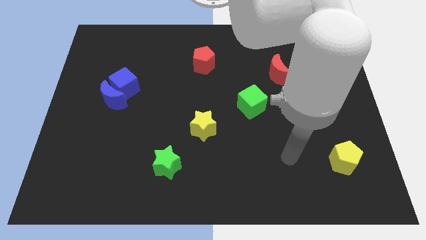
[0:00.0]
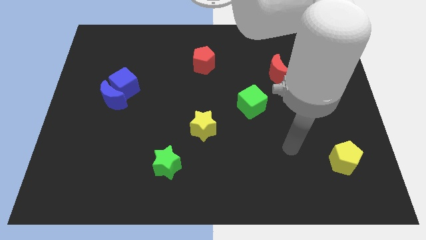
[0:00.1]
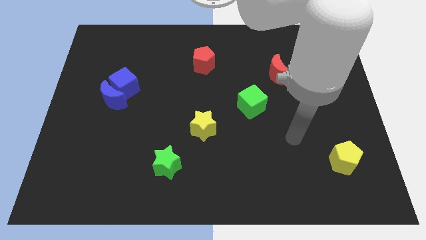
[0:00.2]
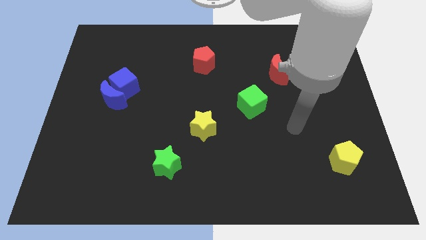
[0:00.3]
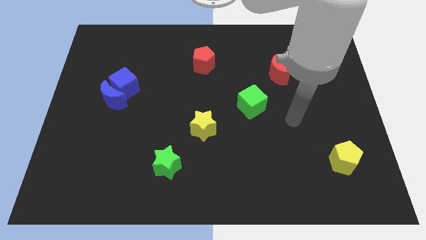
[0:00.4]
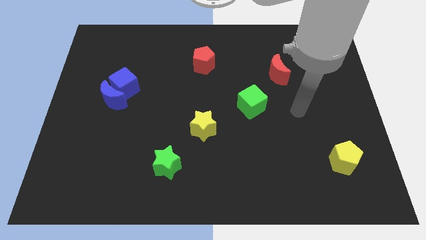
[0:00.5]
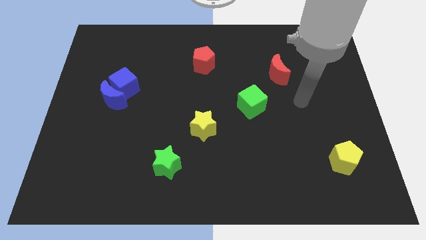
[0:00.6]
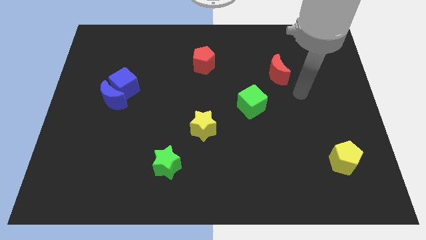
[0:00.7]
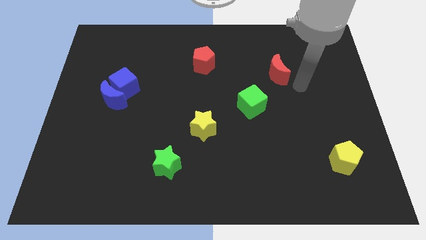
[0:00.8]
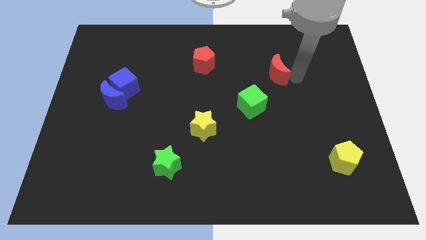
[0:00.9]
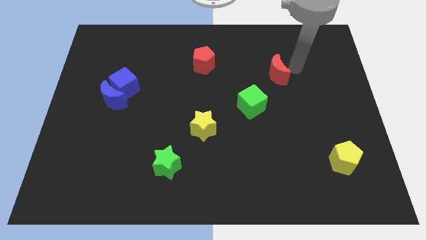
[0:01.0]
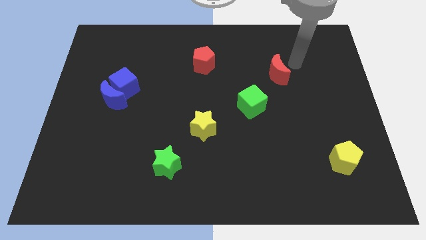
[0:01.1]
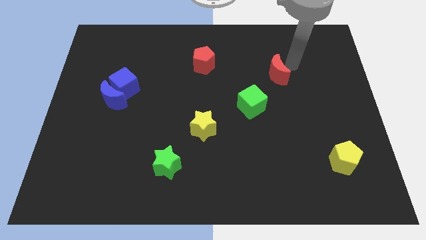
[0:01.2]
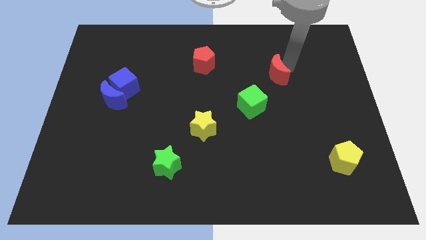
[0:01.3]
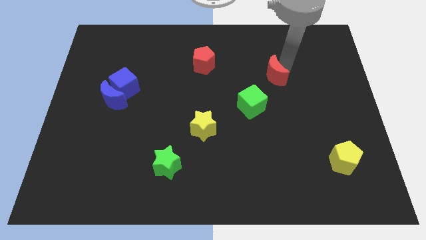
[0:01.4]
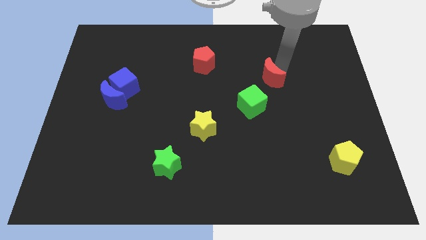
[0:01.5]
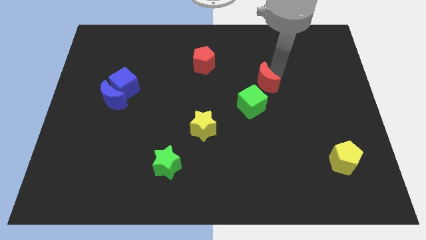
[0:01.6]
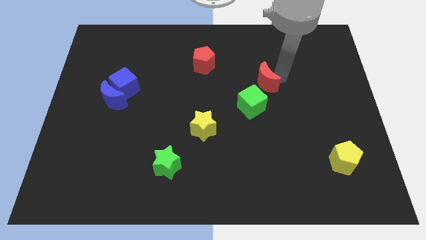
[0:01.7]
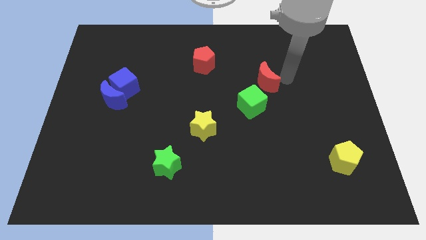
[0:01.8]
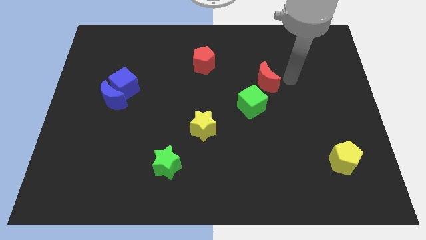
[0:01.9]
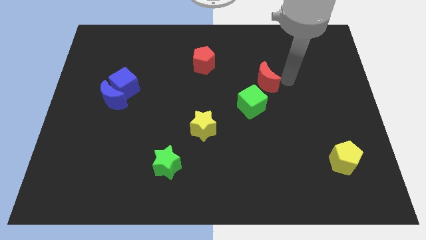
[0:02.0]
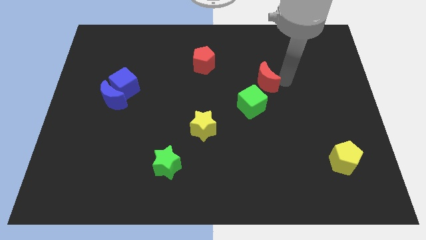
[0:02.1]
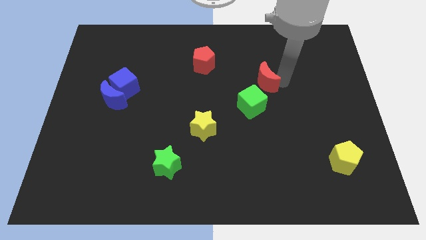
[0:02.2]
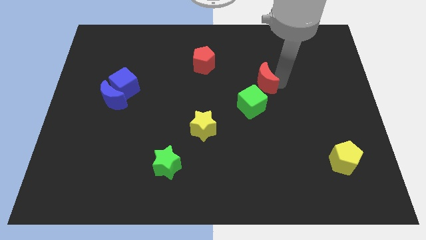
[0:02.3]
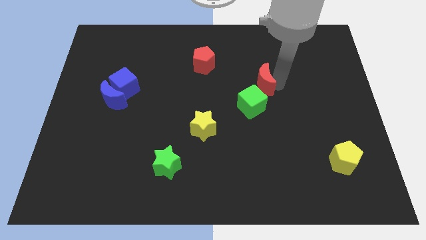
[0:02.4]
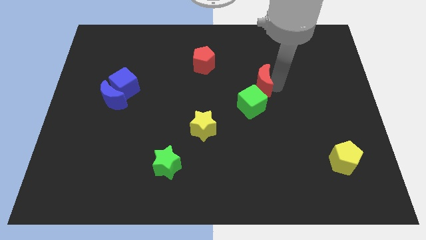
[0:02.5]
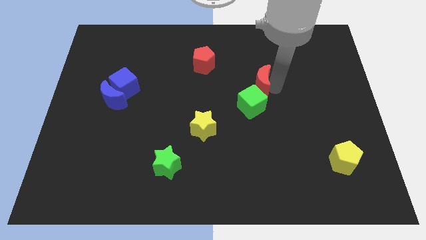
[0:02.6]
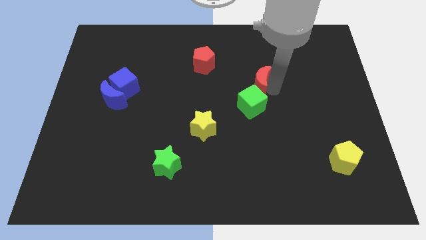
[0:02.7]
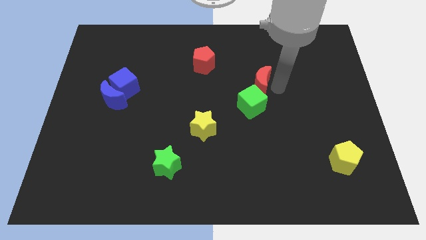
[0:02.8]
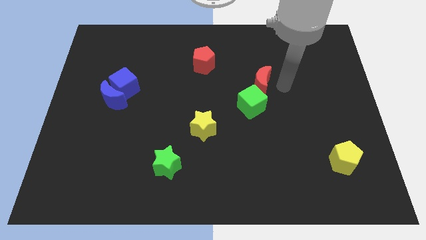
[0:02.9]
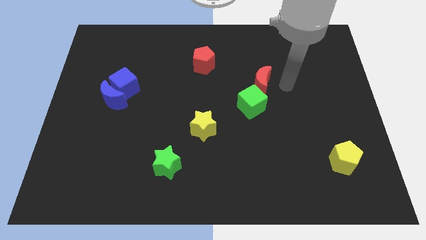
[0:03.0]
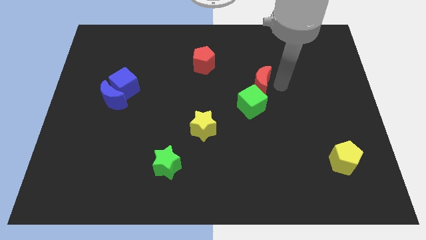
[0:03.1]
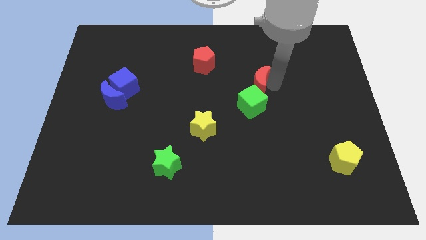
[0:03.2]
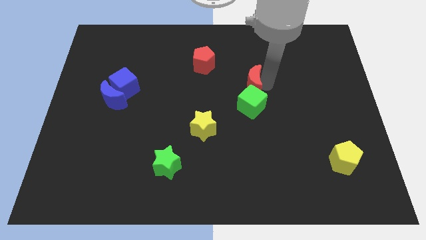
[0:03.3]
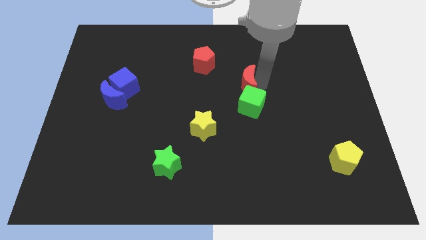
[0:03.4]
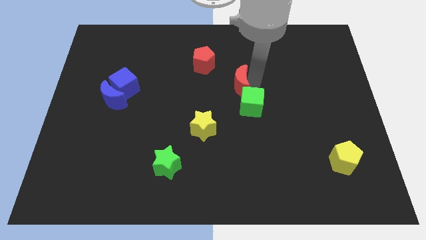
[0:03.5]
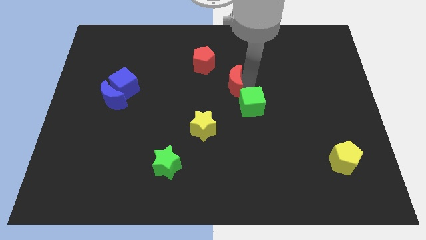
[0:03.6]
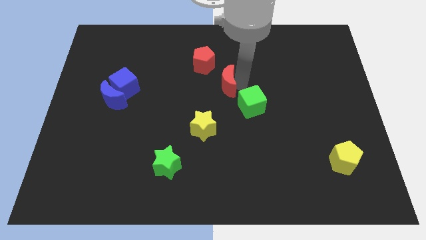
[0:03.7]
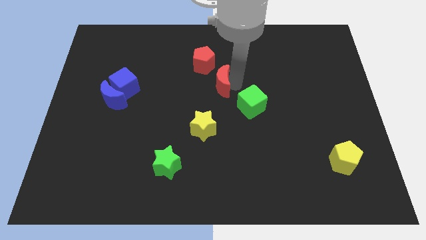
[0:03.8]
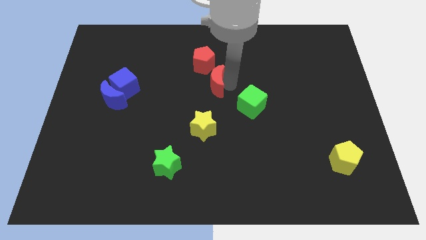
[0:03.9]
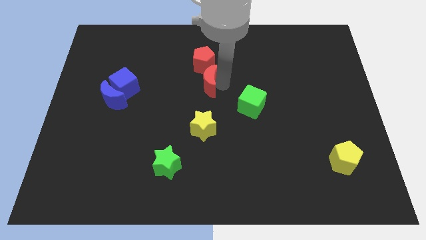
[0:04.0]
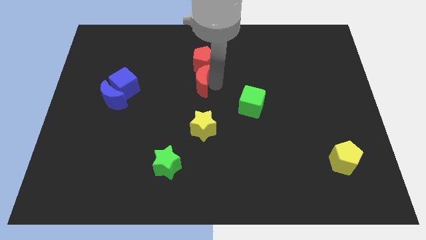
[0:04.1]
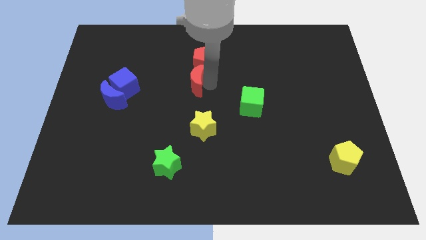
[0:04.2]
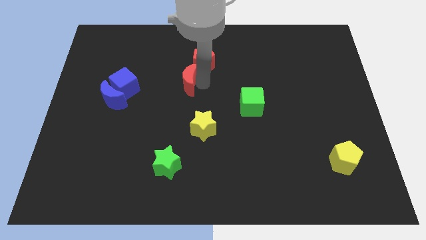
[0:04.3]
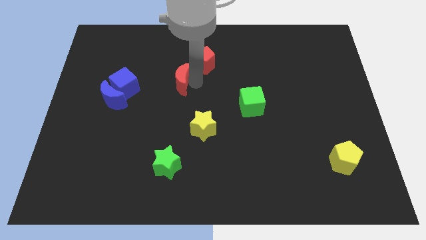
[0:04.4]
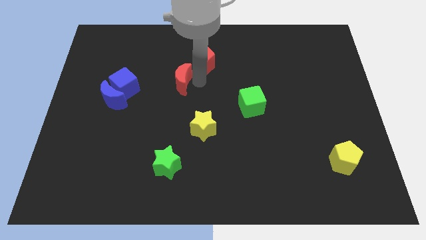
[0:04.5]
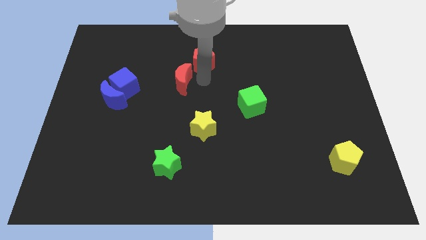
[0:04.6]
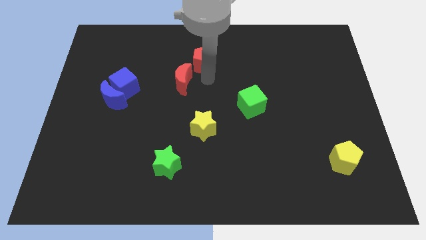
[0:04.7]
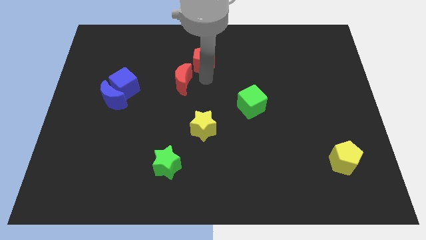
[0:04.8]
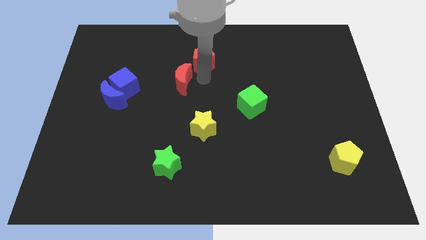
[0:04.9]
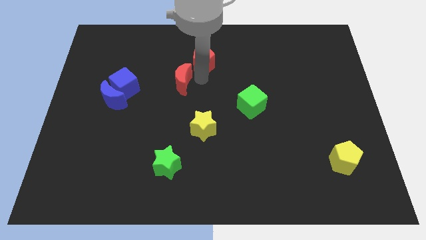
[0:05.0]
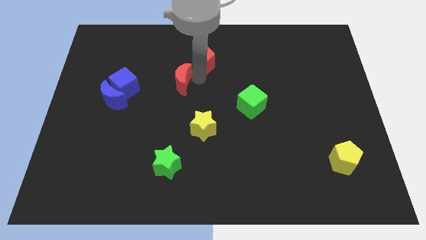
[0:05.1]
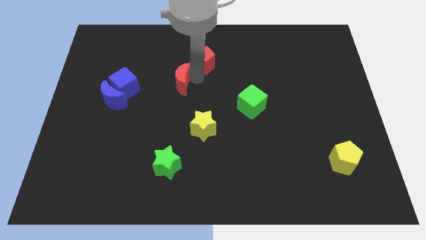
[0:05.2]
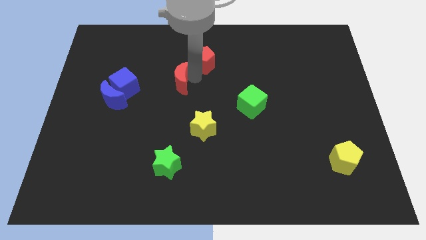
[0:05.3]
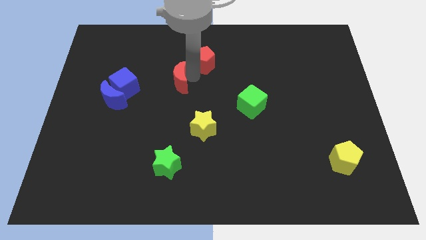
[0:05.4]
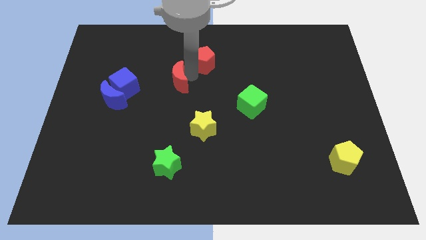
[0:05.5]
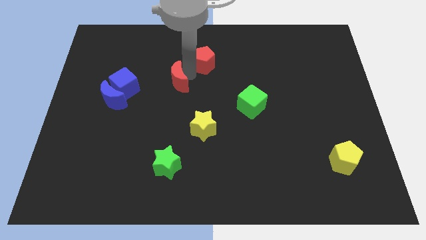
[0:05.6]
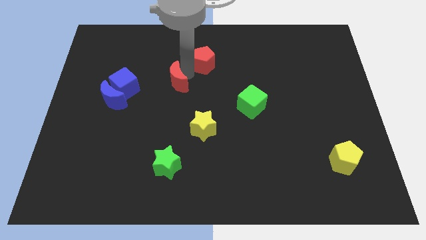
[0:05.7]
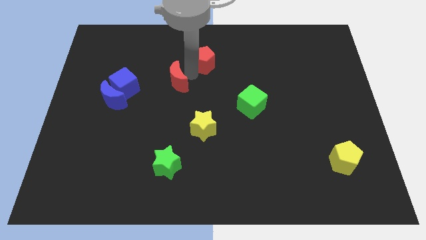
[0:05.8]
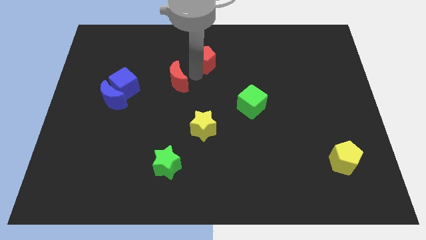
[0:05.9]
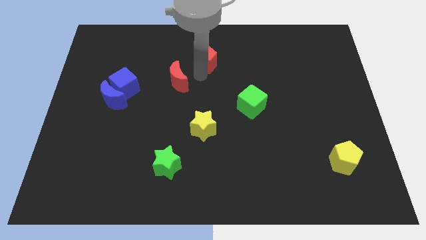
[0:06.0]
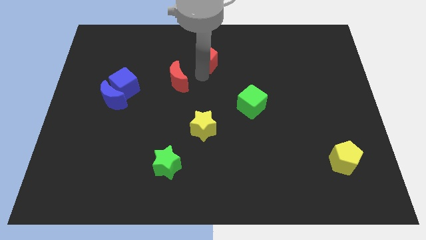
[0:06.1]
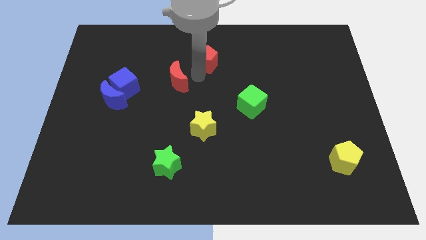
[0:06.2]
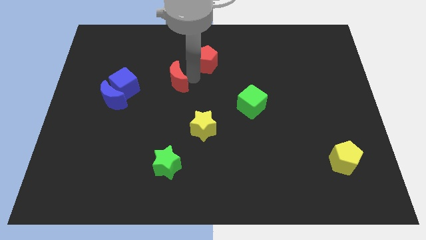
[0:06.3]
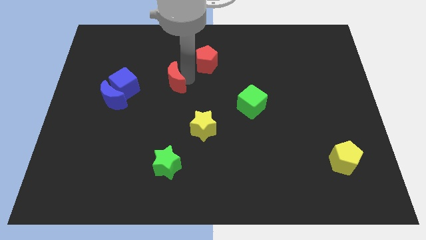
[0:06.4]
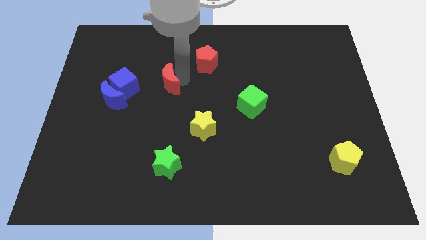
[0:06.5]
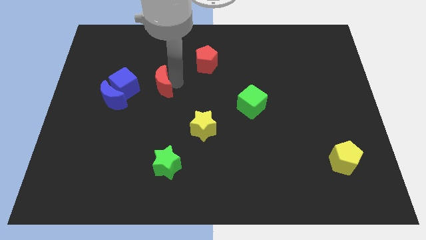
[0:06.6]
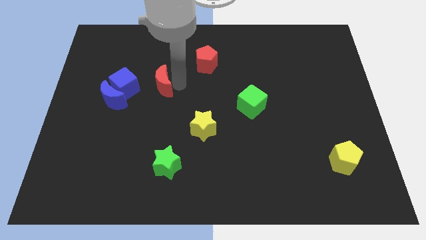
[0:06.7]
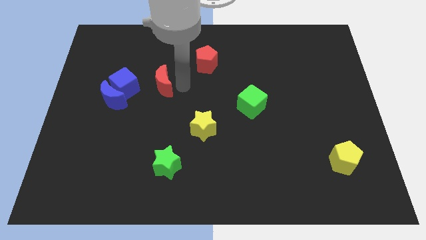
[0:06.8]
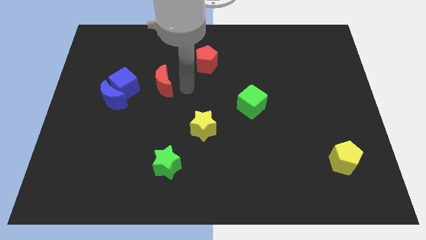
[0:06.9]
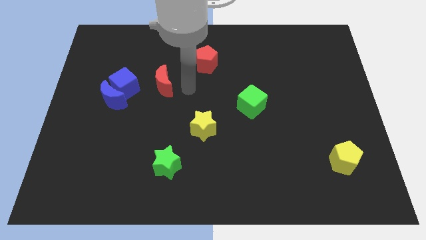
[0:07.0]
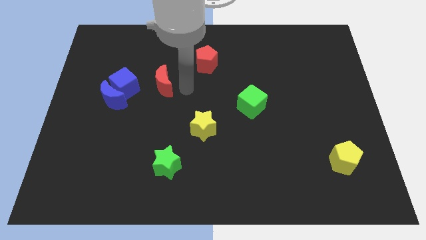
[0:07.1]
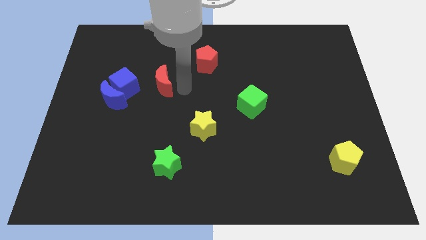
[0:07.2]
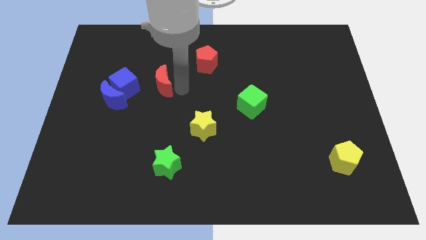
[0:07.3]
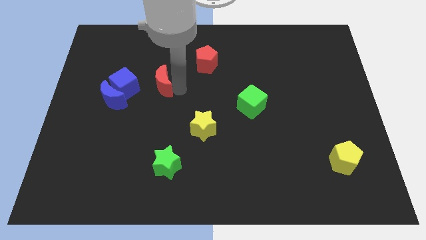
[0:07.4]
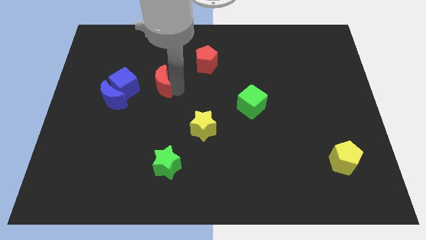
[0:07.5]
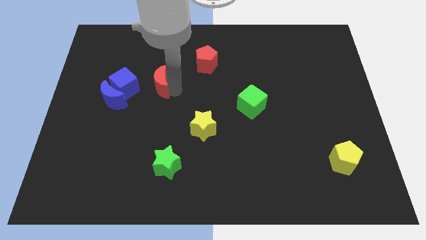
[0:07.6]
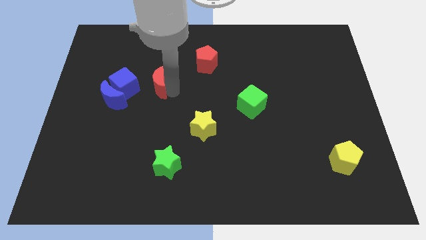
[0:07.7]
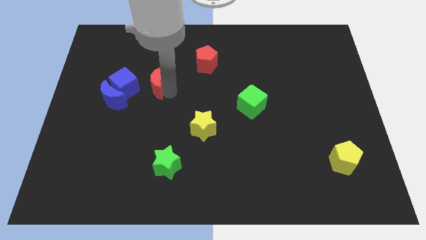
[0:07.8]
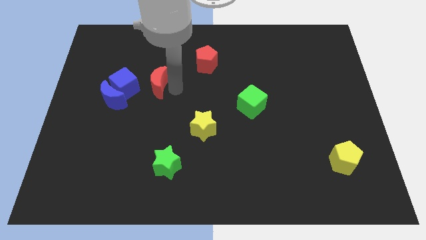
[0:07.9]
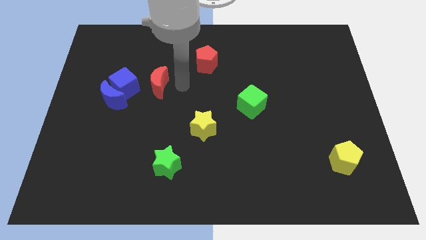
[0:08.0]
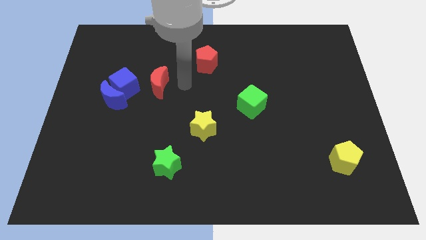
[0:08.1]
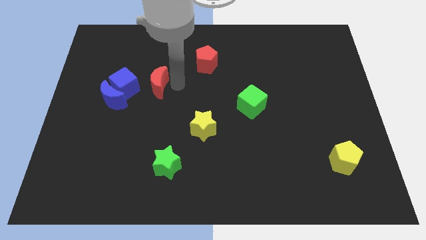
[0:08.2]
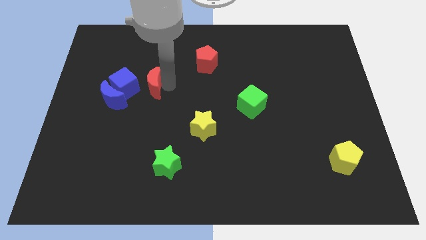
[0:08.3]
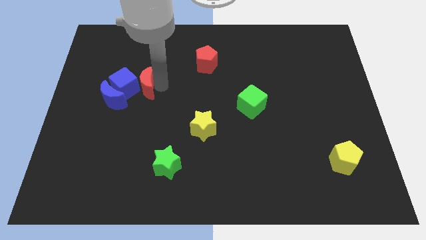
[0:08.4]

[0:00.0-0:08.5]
slide the red moon towards the blue cube
